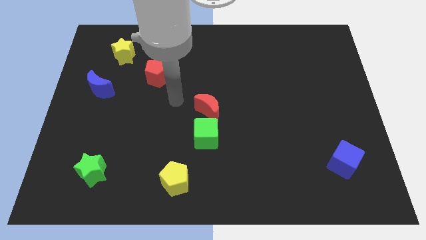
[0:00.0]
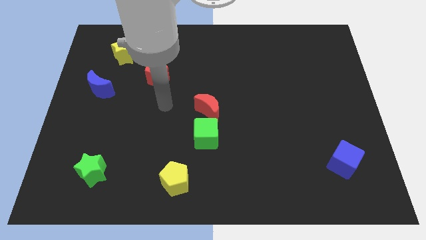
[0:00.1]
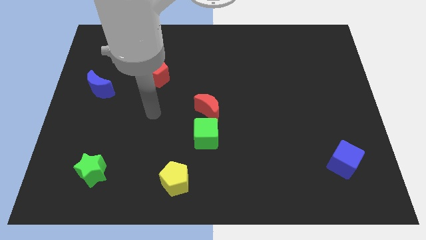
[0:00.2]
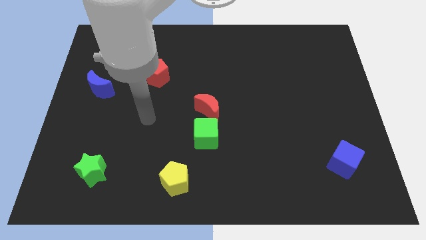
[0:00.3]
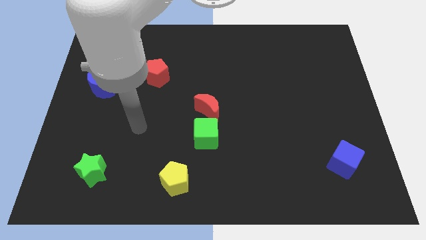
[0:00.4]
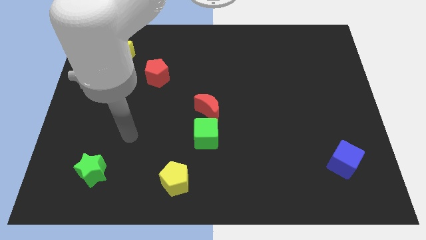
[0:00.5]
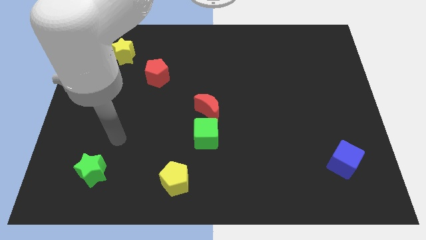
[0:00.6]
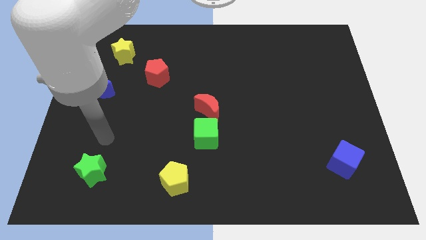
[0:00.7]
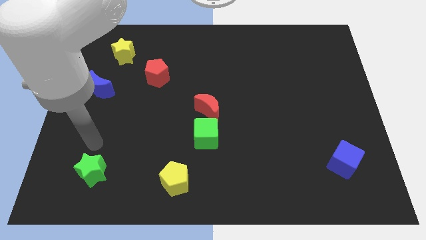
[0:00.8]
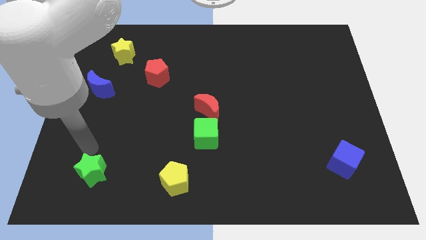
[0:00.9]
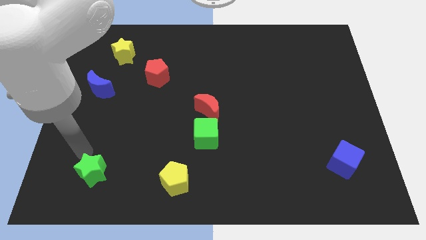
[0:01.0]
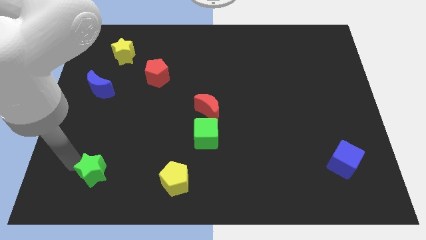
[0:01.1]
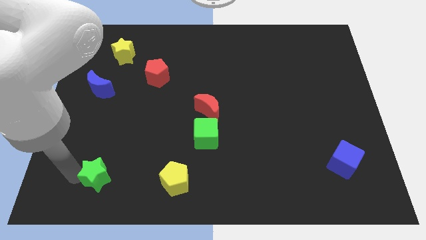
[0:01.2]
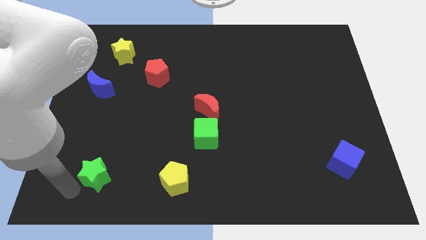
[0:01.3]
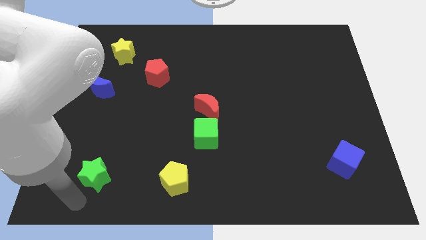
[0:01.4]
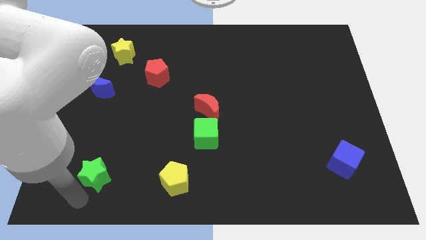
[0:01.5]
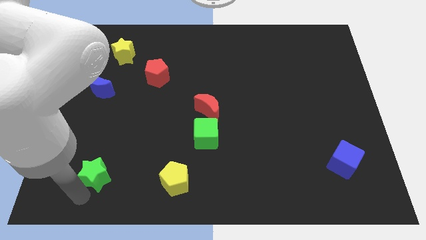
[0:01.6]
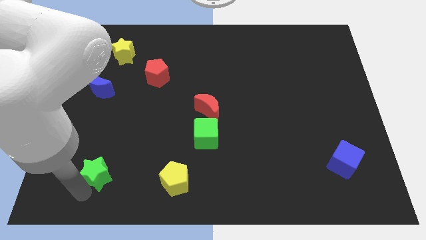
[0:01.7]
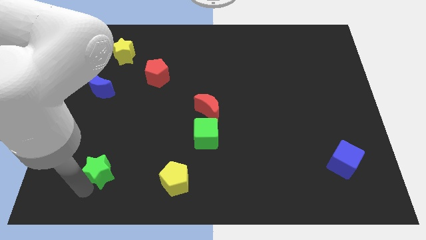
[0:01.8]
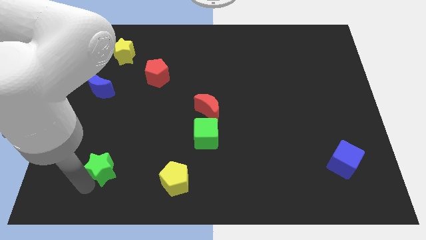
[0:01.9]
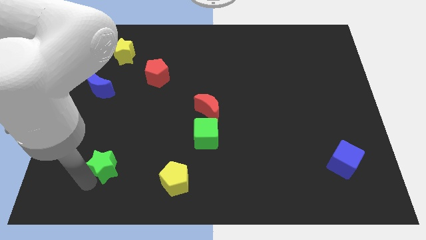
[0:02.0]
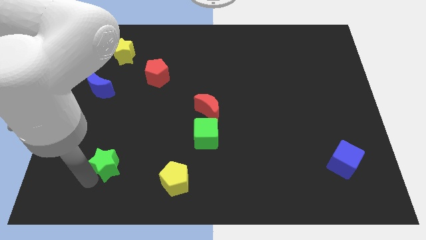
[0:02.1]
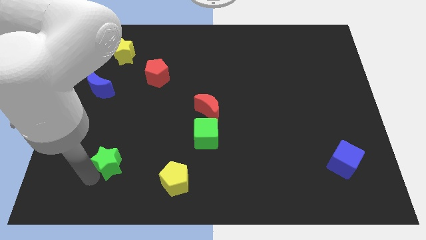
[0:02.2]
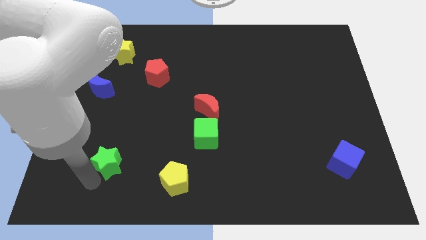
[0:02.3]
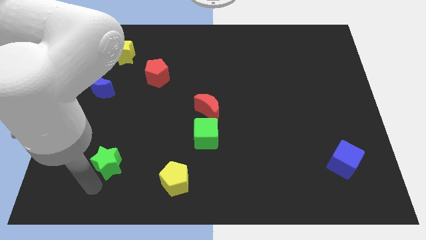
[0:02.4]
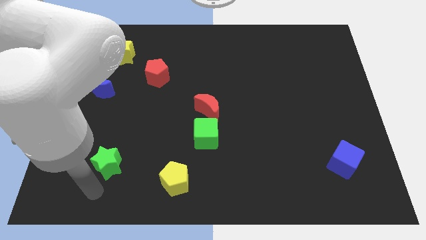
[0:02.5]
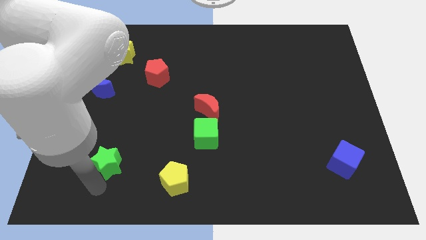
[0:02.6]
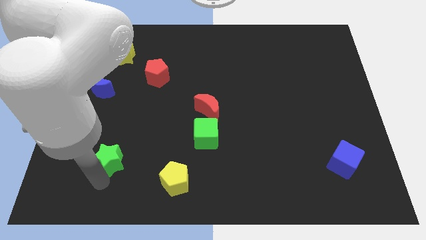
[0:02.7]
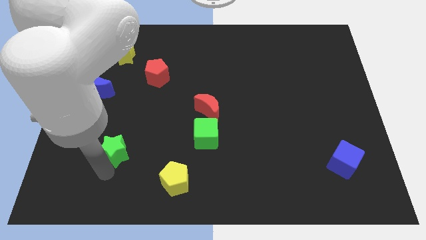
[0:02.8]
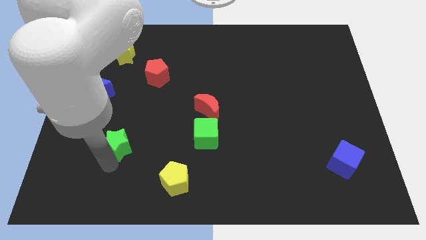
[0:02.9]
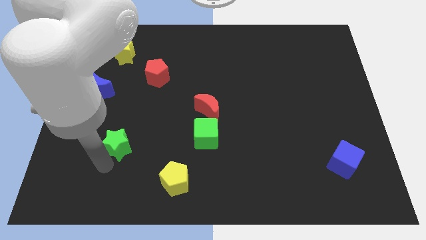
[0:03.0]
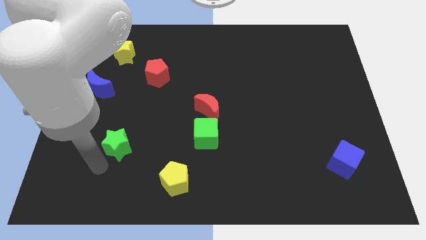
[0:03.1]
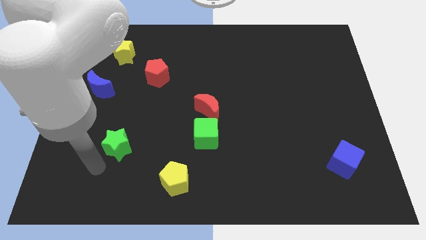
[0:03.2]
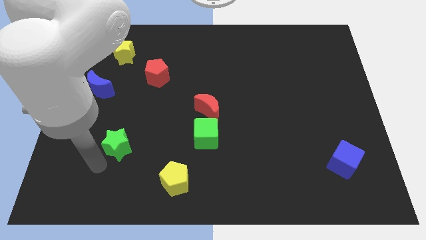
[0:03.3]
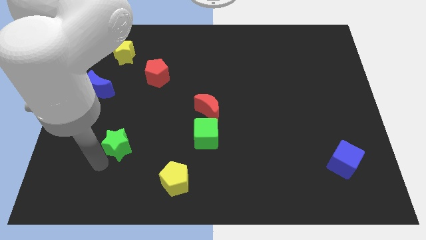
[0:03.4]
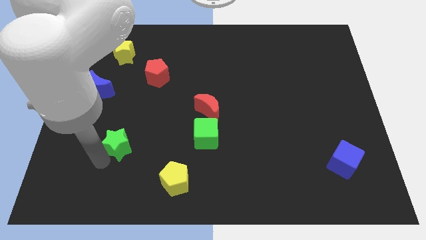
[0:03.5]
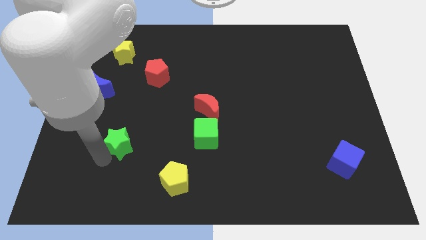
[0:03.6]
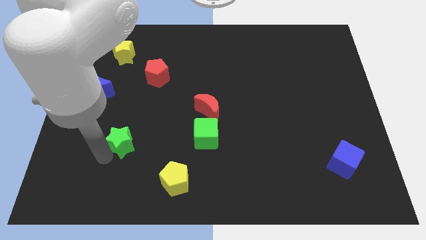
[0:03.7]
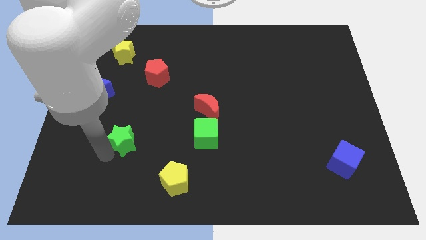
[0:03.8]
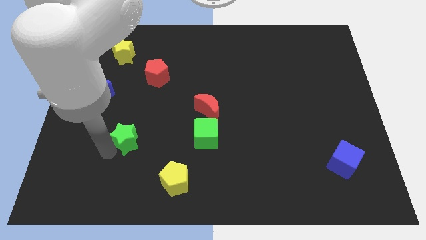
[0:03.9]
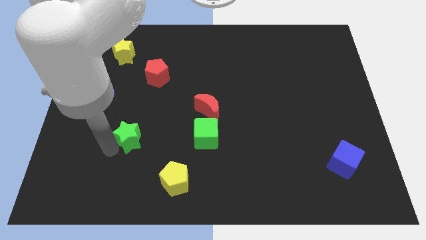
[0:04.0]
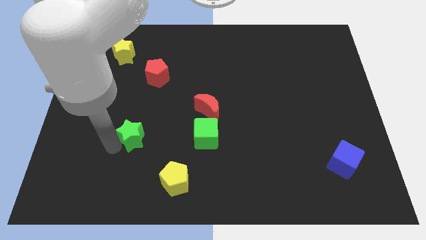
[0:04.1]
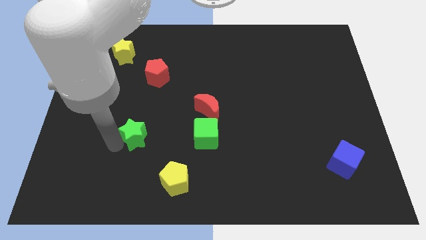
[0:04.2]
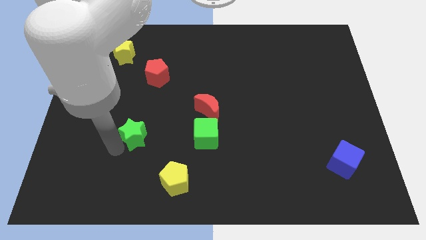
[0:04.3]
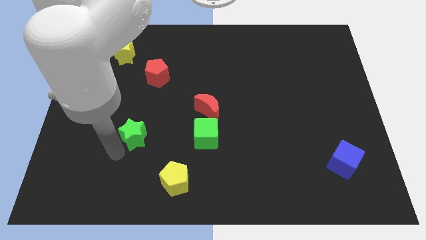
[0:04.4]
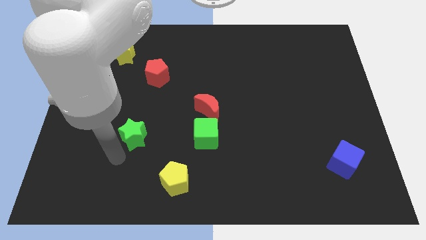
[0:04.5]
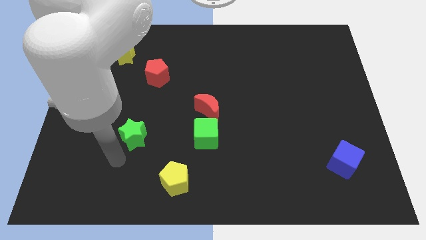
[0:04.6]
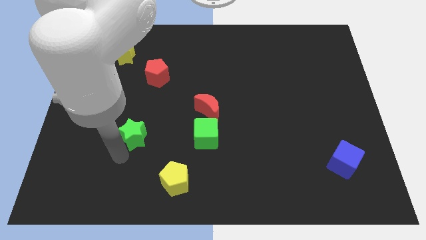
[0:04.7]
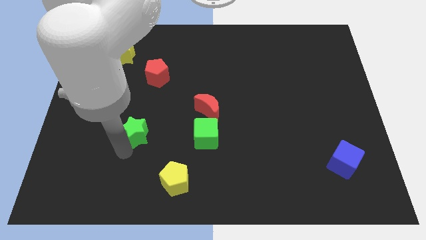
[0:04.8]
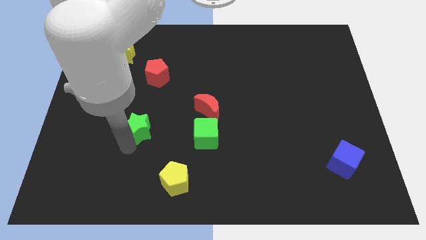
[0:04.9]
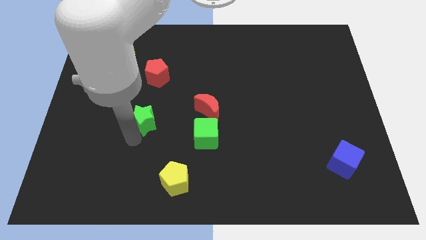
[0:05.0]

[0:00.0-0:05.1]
slide the green star left of the red moon

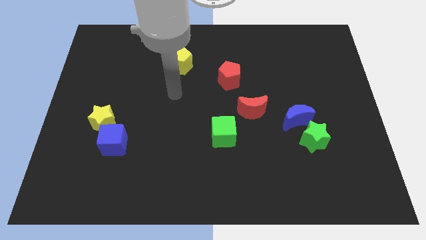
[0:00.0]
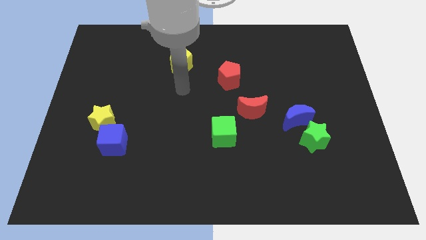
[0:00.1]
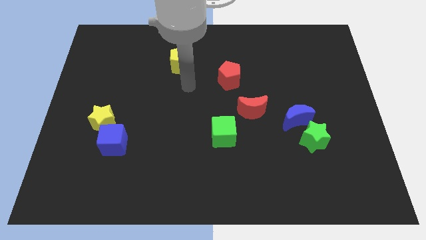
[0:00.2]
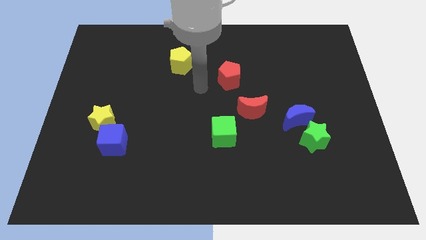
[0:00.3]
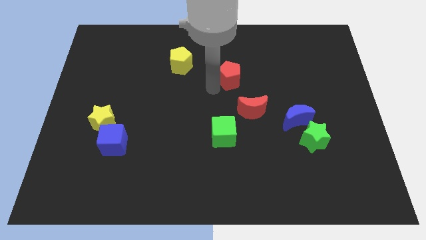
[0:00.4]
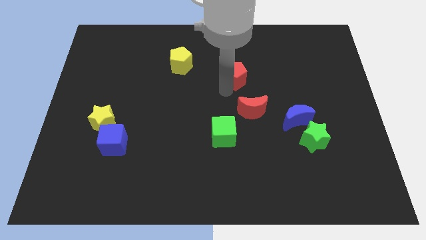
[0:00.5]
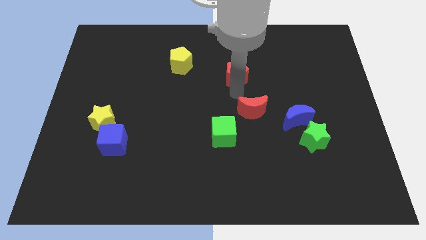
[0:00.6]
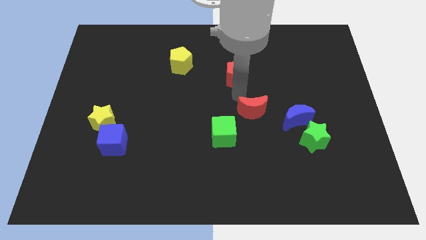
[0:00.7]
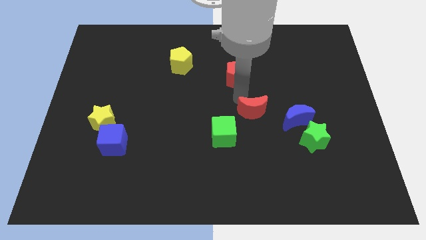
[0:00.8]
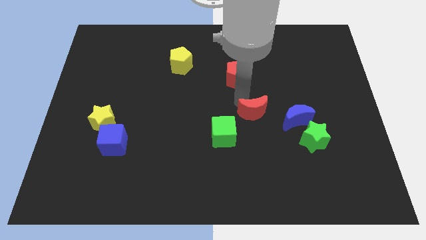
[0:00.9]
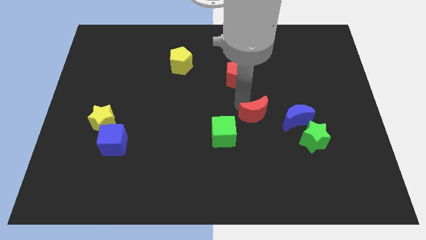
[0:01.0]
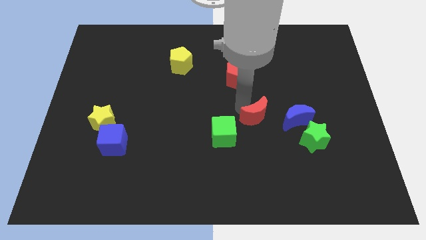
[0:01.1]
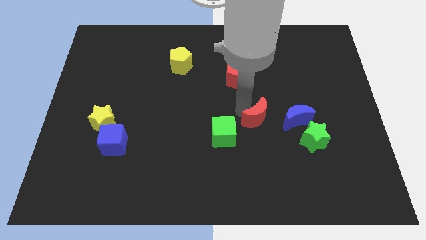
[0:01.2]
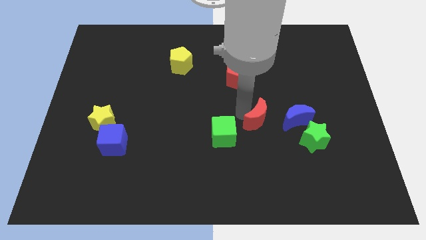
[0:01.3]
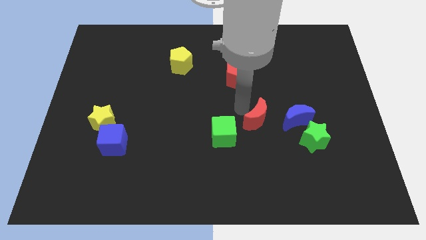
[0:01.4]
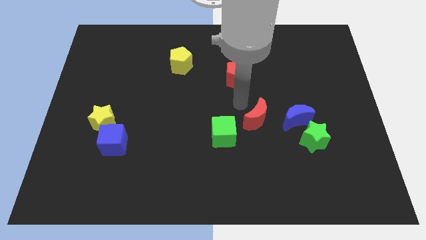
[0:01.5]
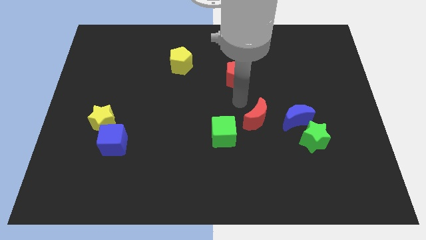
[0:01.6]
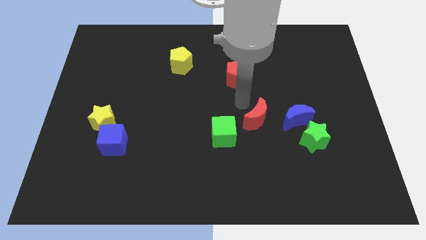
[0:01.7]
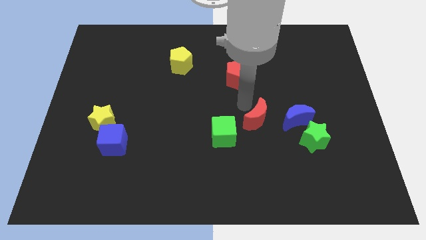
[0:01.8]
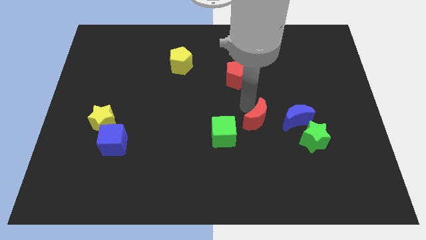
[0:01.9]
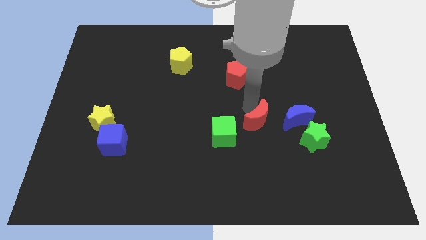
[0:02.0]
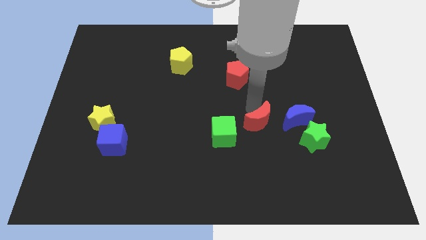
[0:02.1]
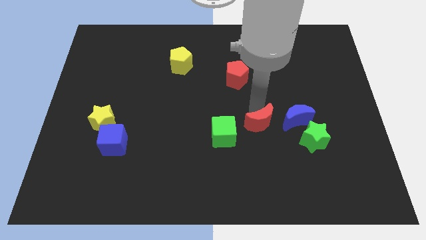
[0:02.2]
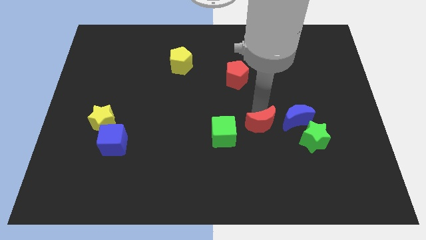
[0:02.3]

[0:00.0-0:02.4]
slide the red moon to the bottom left of the blue moon

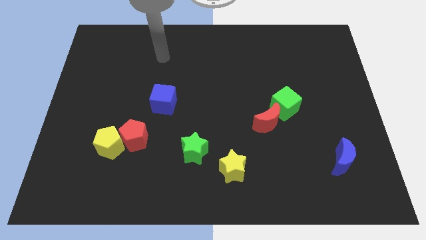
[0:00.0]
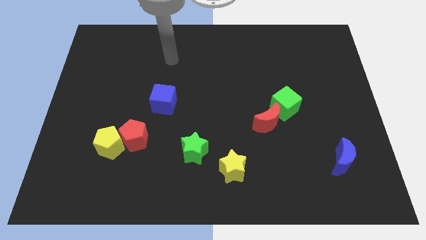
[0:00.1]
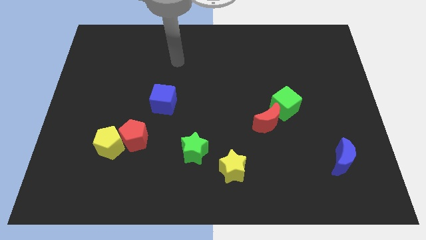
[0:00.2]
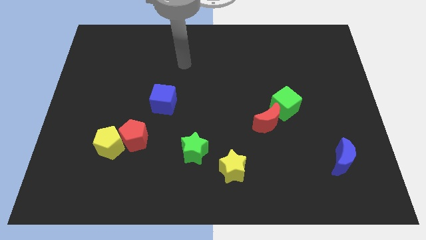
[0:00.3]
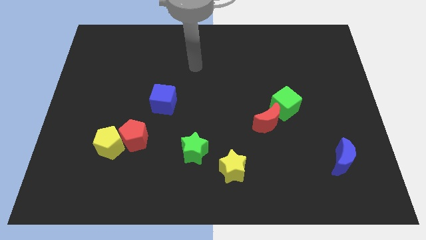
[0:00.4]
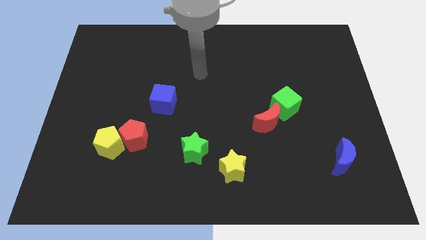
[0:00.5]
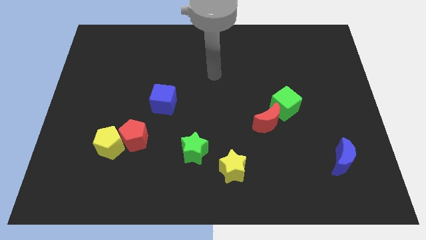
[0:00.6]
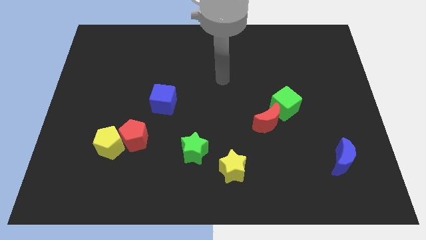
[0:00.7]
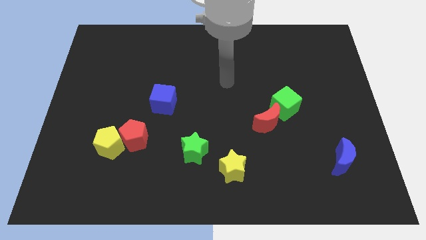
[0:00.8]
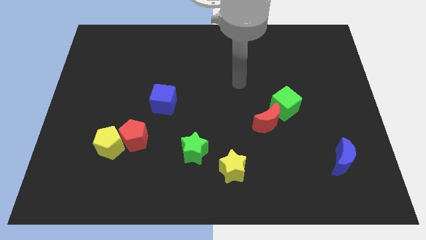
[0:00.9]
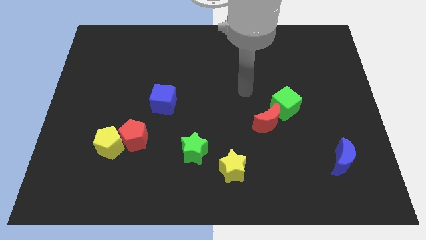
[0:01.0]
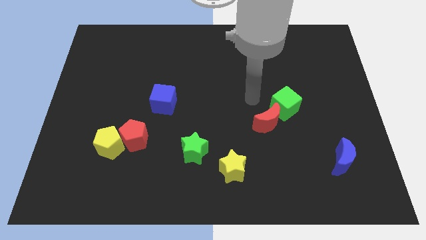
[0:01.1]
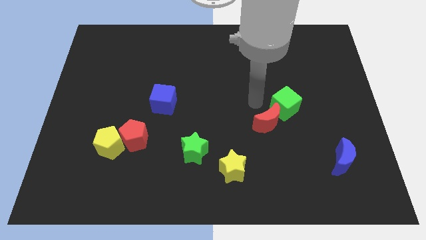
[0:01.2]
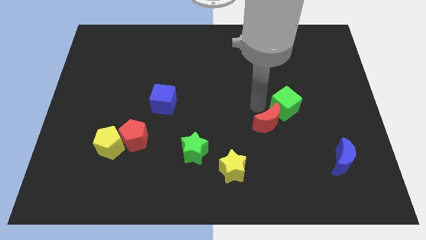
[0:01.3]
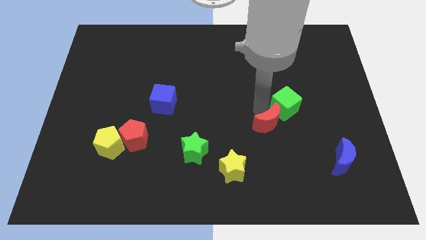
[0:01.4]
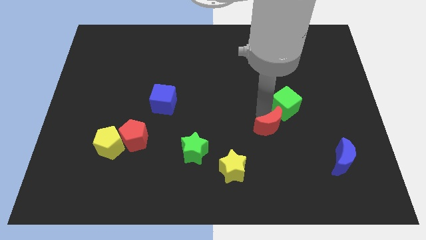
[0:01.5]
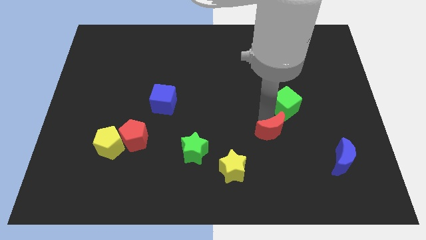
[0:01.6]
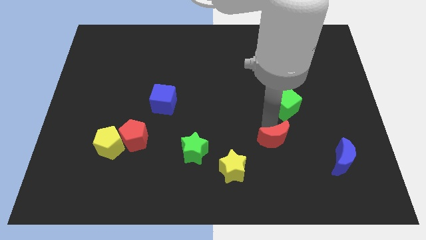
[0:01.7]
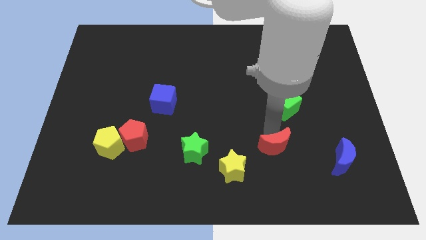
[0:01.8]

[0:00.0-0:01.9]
slide the red moon left of the blue moon
